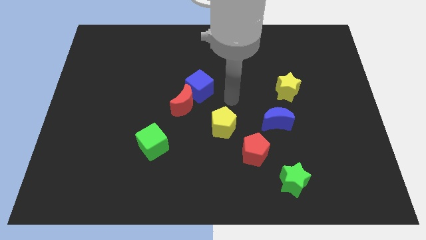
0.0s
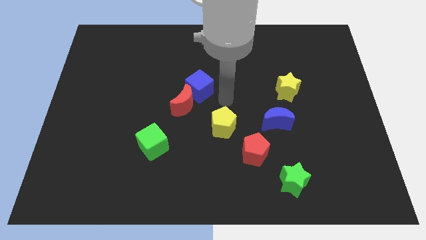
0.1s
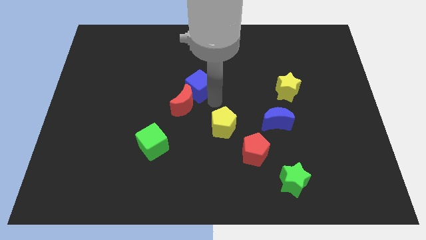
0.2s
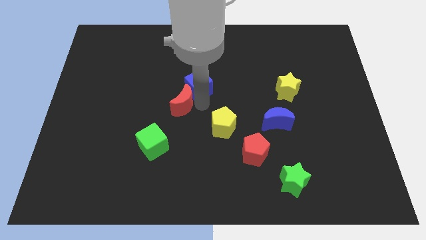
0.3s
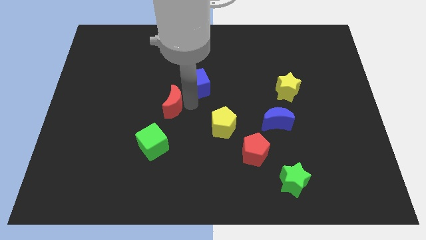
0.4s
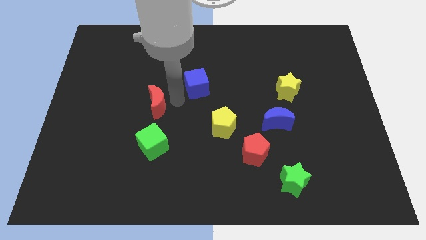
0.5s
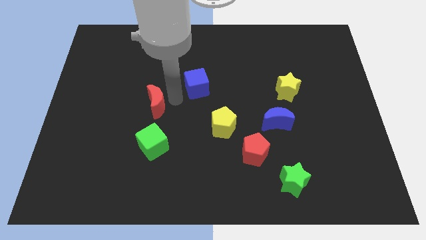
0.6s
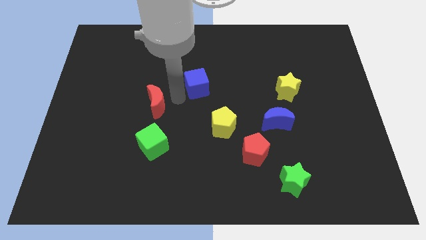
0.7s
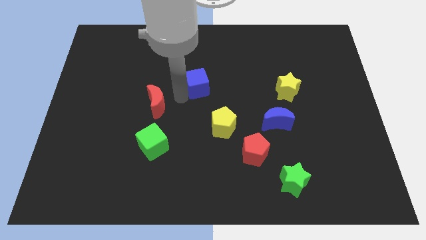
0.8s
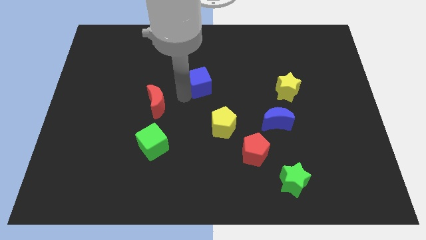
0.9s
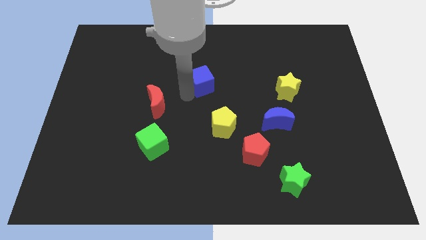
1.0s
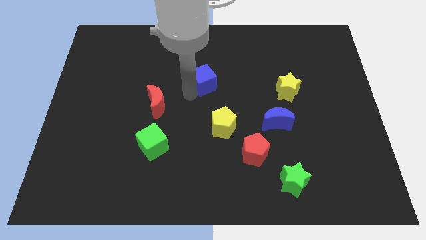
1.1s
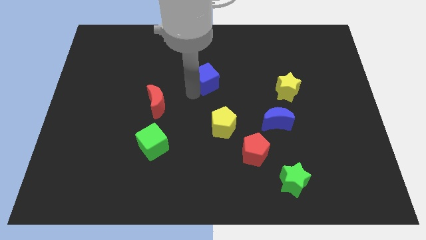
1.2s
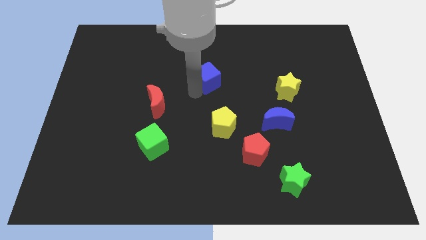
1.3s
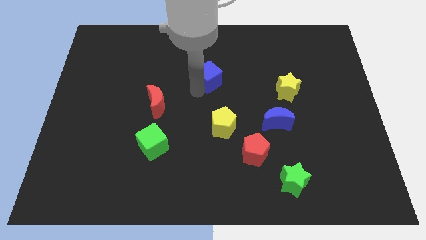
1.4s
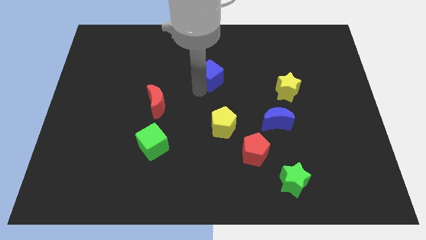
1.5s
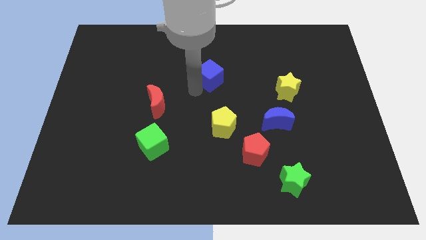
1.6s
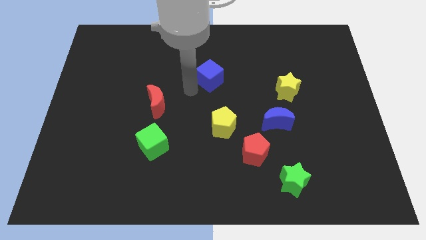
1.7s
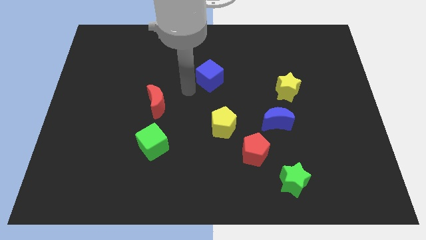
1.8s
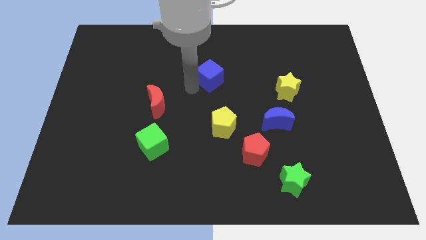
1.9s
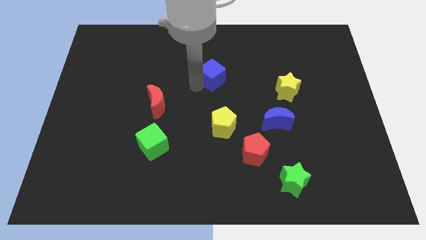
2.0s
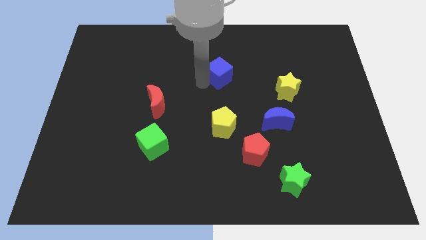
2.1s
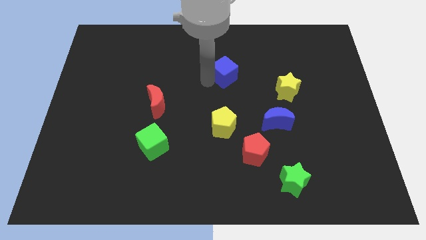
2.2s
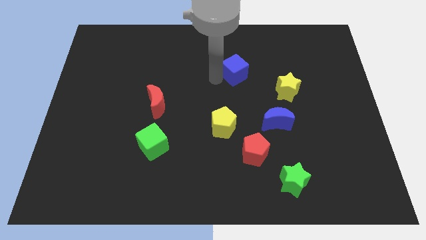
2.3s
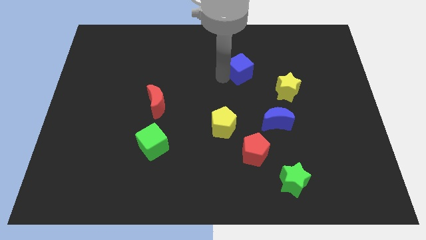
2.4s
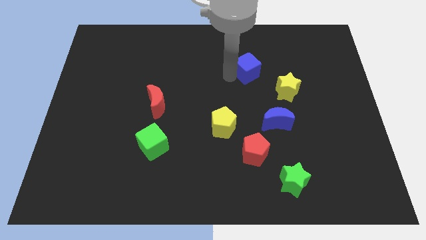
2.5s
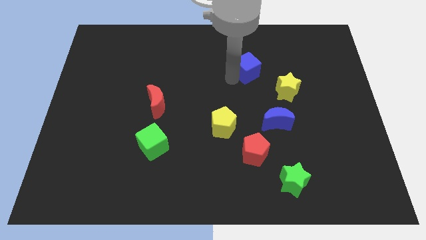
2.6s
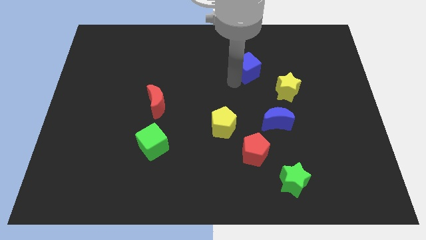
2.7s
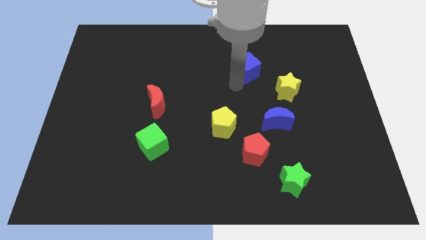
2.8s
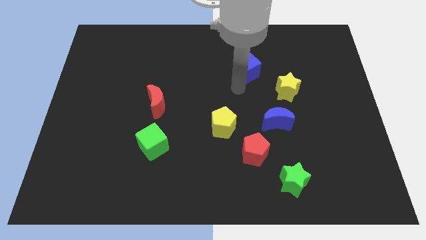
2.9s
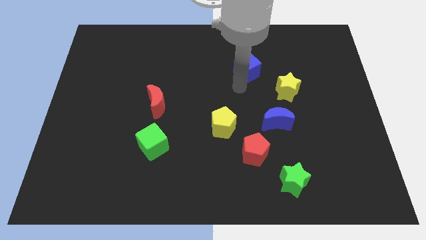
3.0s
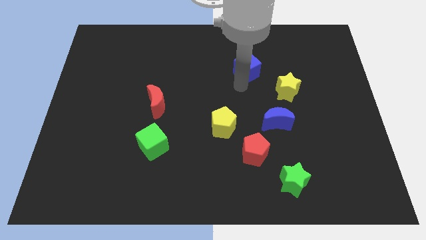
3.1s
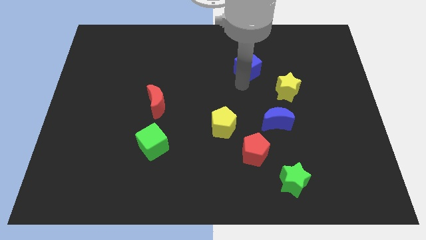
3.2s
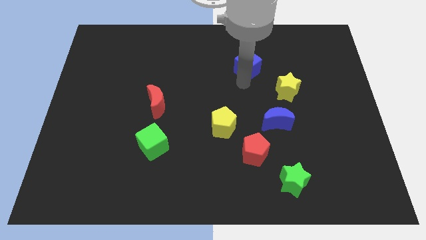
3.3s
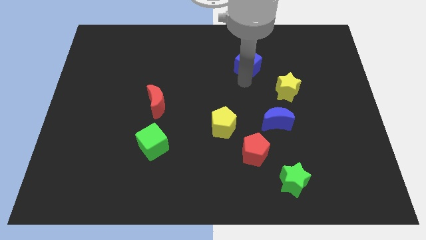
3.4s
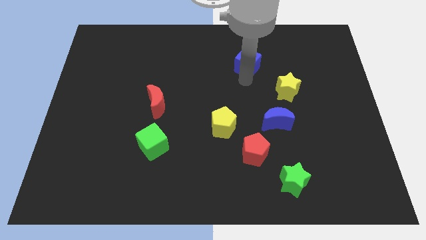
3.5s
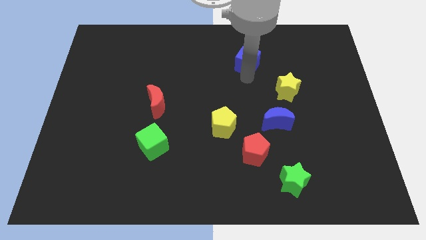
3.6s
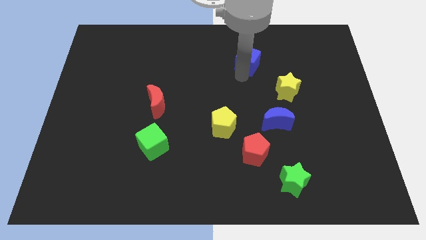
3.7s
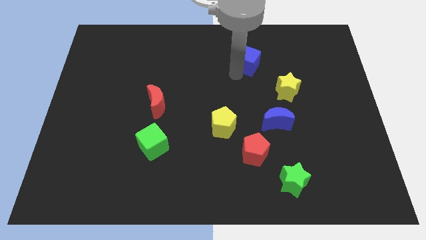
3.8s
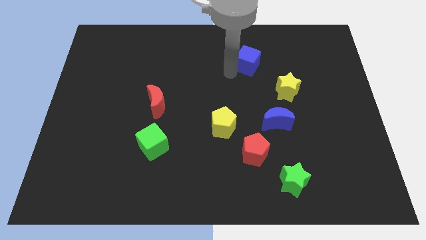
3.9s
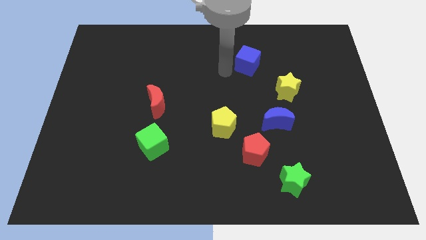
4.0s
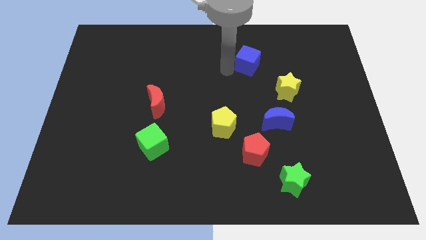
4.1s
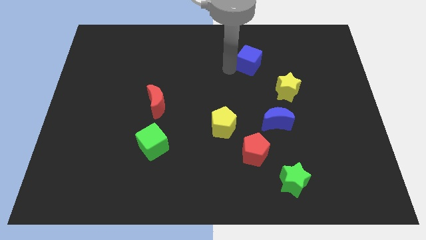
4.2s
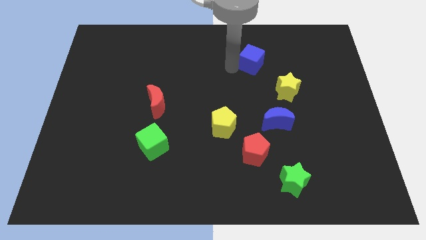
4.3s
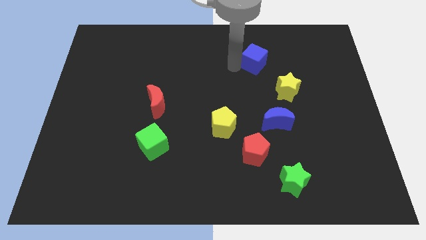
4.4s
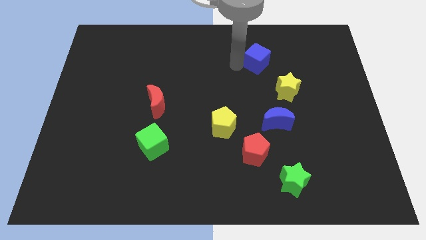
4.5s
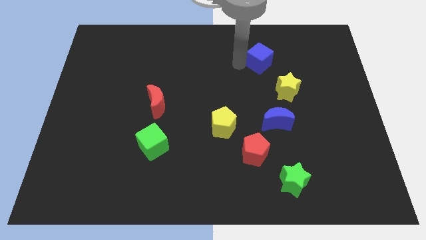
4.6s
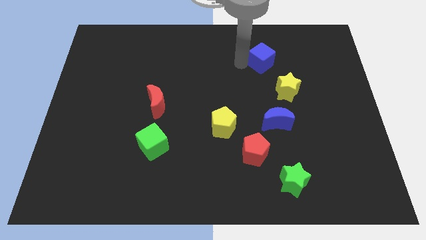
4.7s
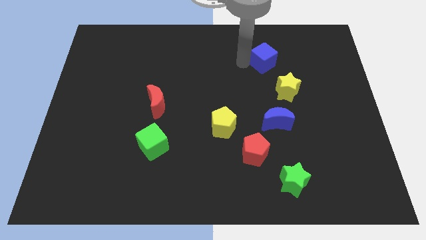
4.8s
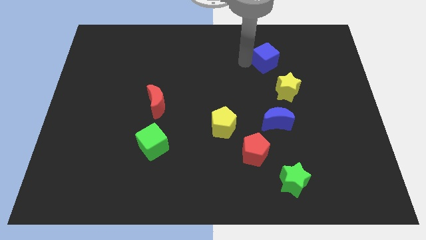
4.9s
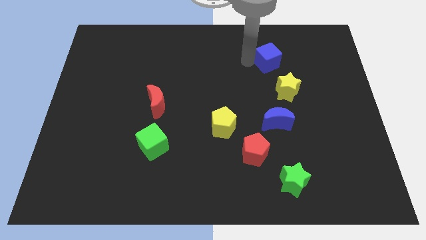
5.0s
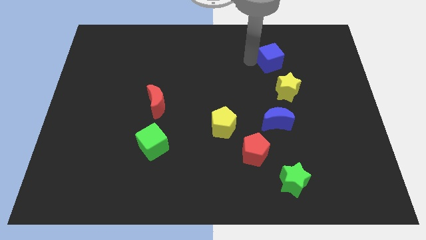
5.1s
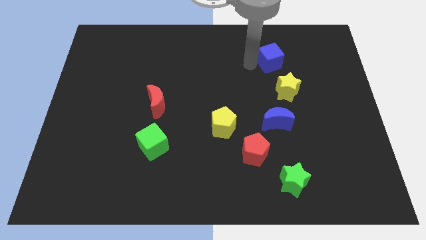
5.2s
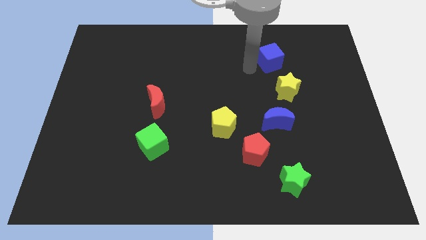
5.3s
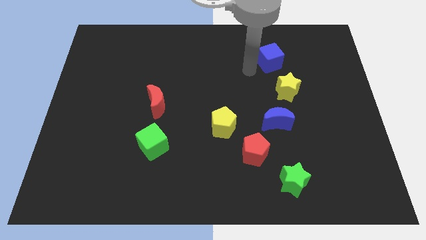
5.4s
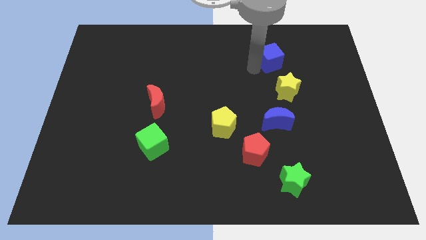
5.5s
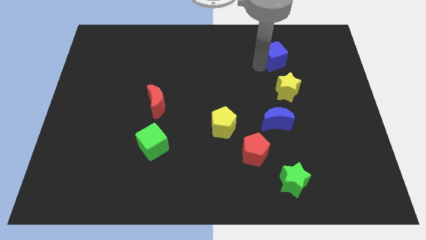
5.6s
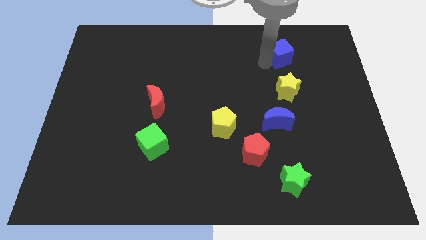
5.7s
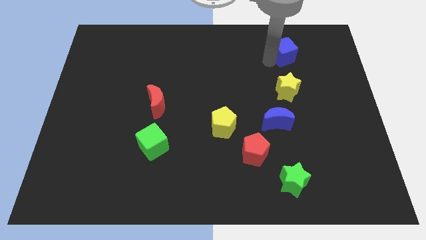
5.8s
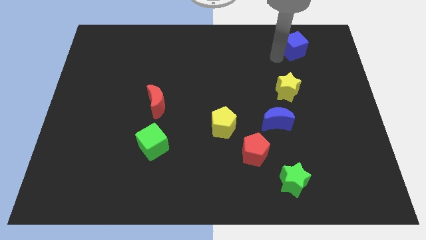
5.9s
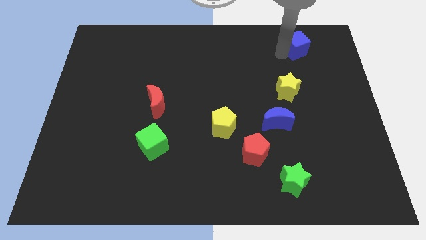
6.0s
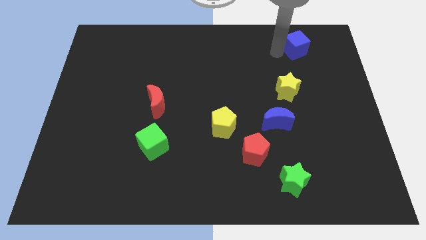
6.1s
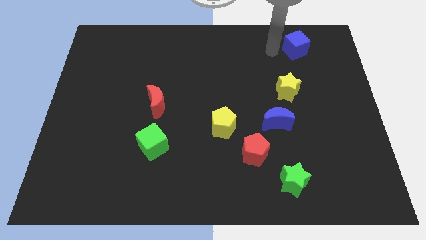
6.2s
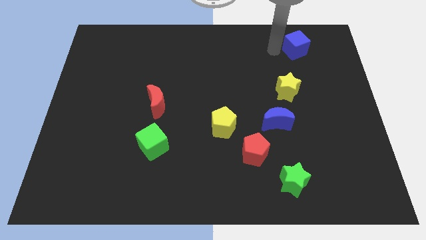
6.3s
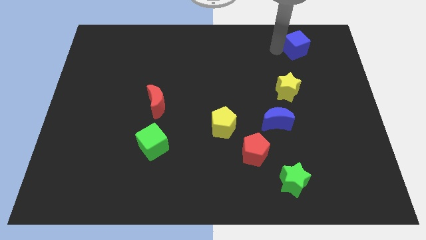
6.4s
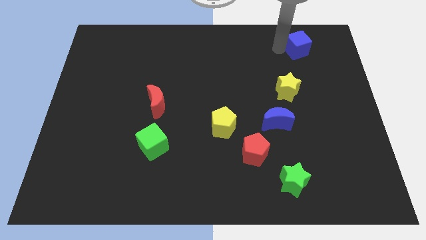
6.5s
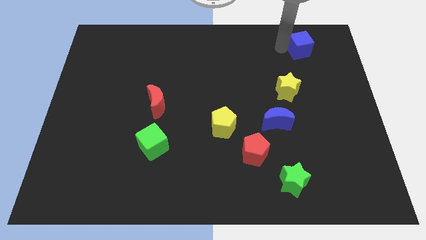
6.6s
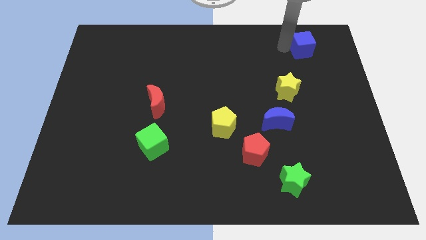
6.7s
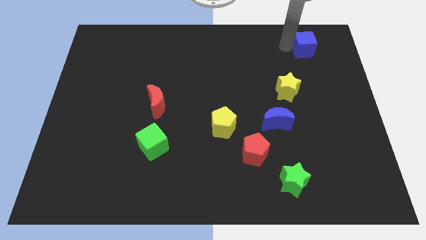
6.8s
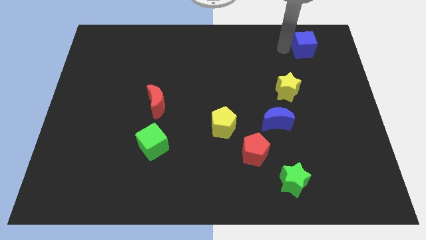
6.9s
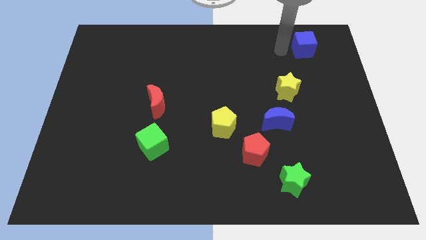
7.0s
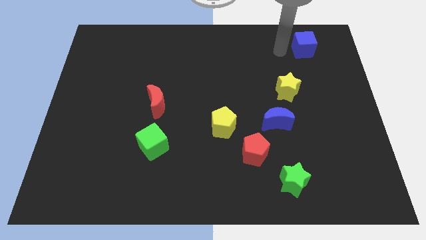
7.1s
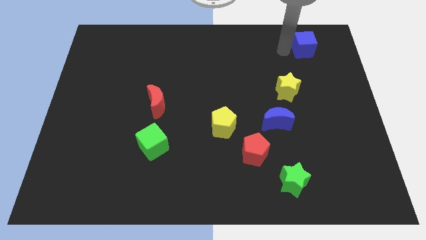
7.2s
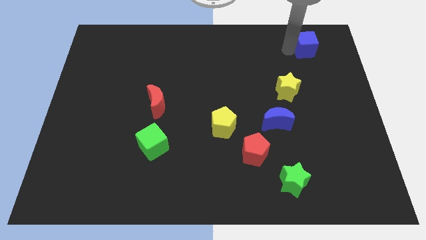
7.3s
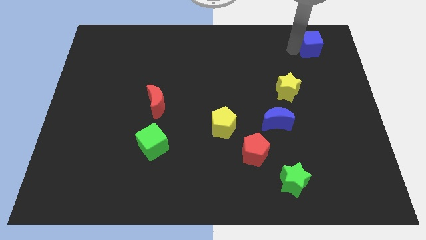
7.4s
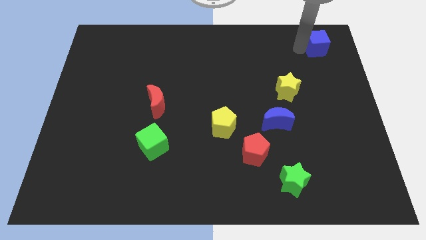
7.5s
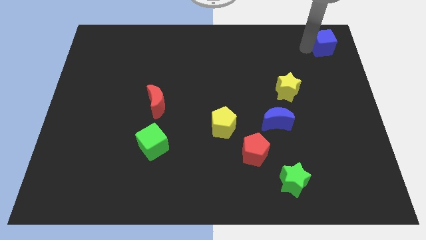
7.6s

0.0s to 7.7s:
put the blue cube to the top right corner
